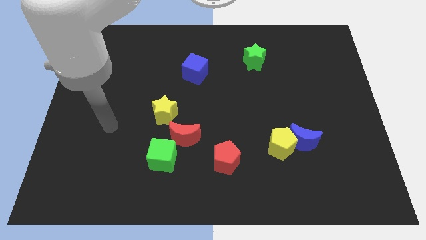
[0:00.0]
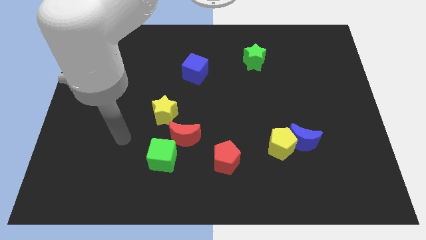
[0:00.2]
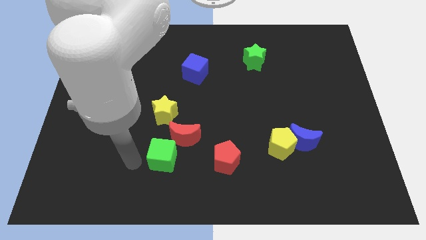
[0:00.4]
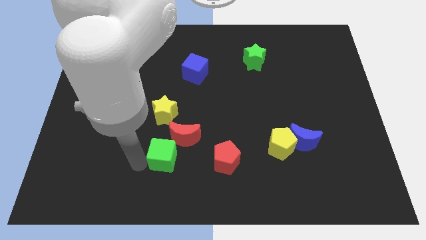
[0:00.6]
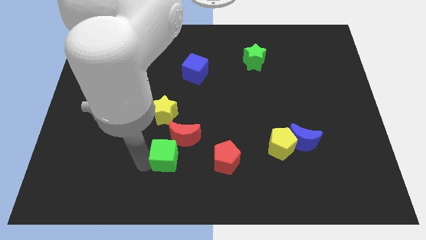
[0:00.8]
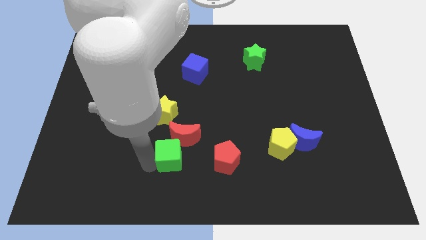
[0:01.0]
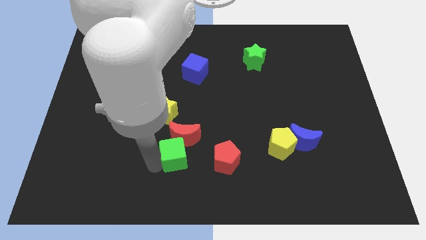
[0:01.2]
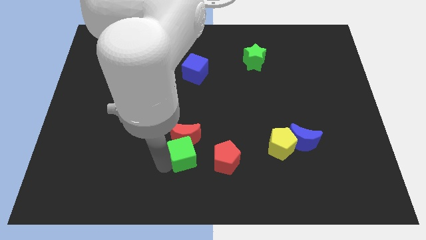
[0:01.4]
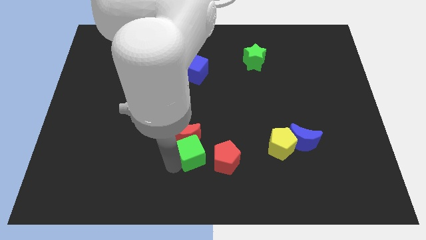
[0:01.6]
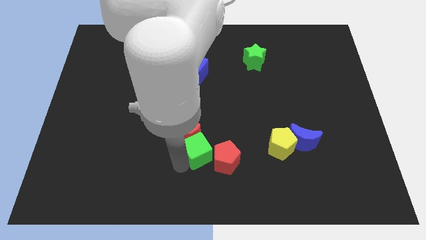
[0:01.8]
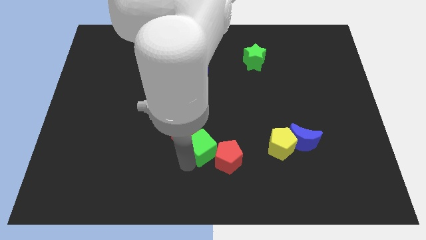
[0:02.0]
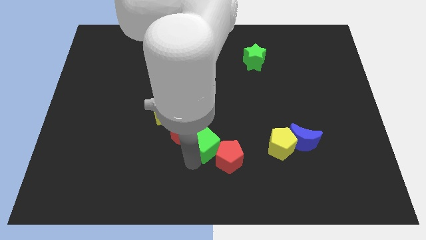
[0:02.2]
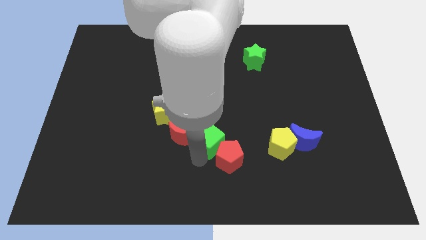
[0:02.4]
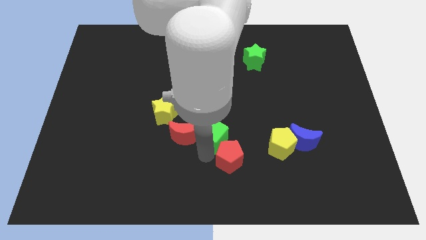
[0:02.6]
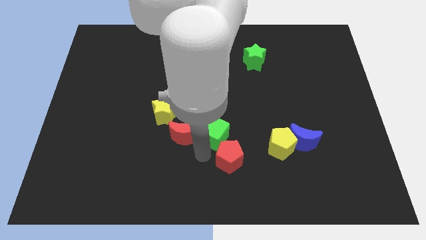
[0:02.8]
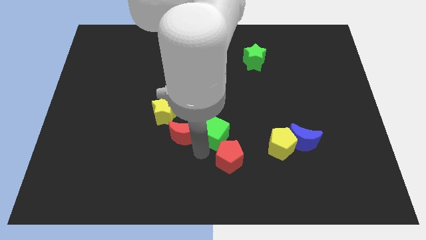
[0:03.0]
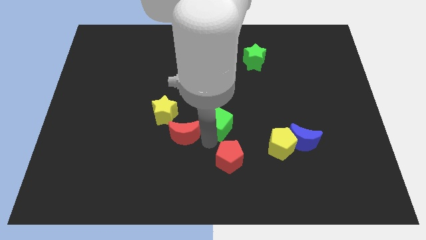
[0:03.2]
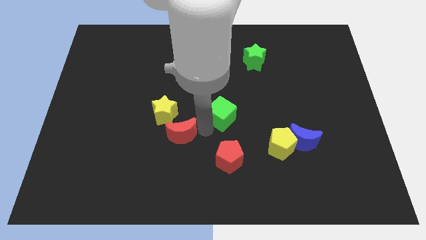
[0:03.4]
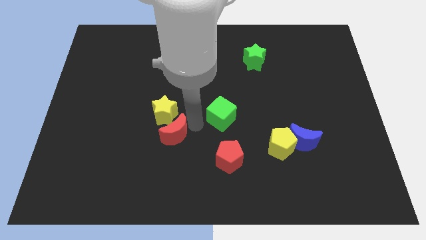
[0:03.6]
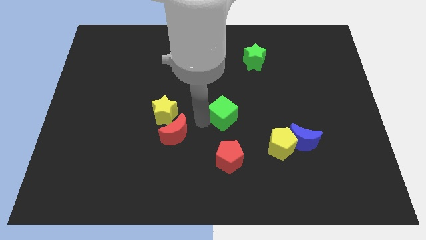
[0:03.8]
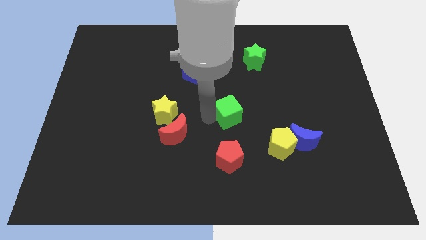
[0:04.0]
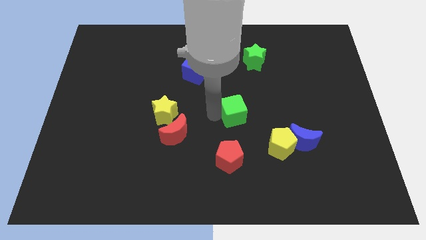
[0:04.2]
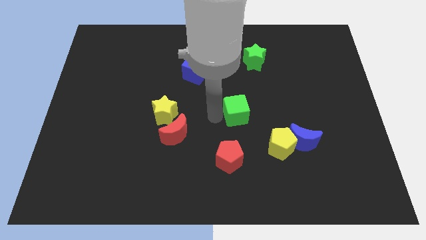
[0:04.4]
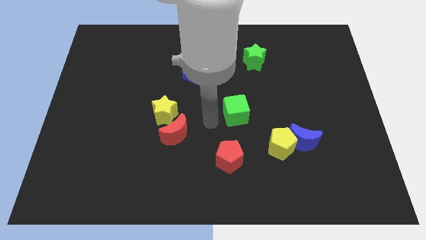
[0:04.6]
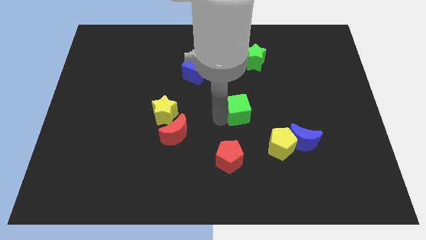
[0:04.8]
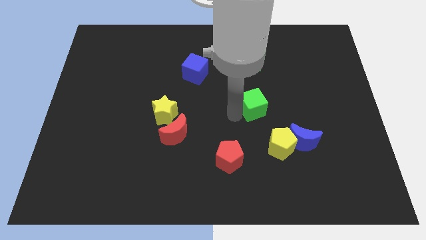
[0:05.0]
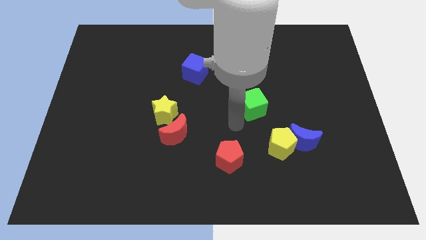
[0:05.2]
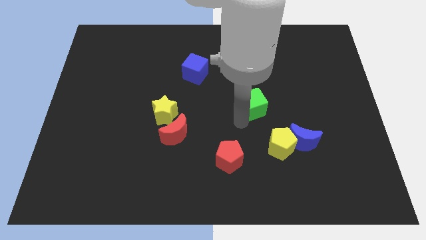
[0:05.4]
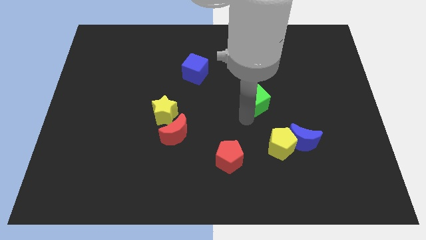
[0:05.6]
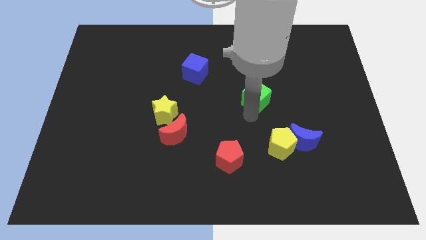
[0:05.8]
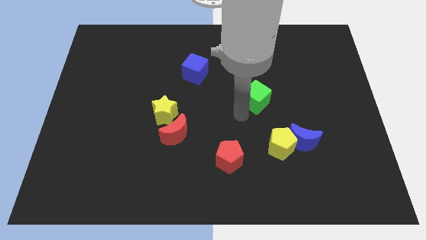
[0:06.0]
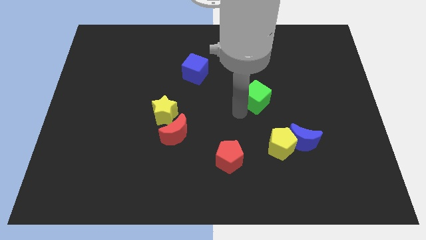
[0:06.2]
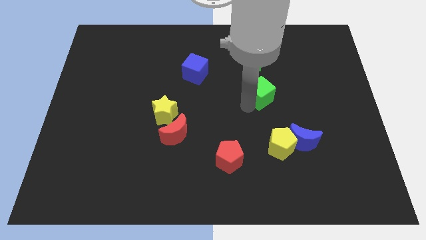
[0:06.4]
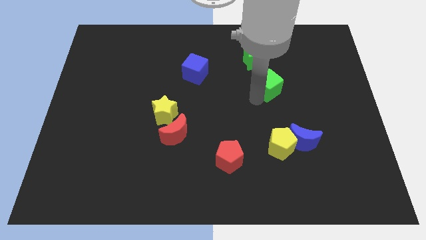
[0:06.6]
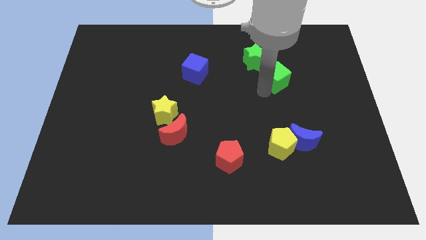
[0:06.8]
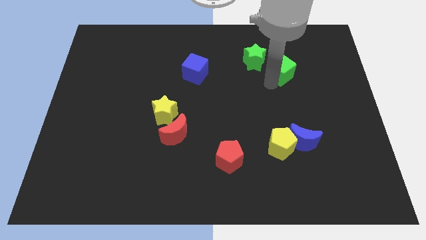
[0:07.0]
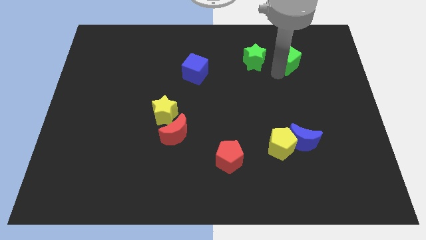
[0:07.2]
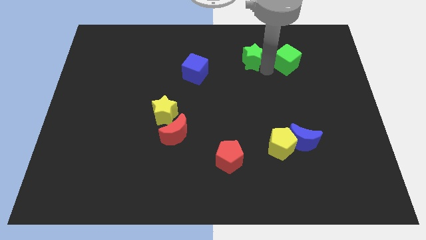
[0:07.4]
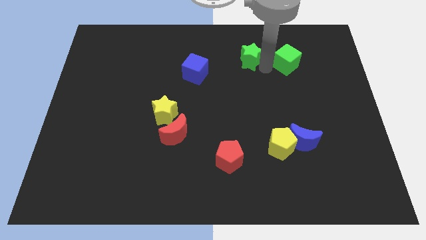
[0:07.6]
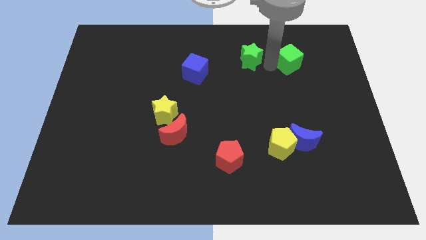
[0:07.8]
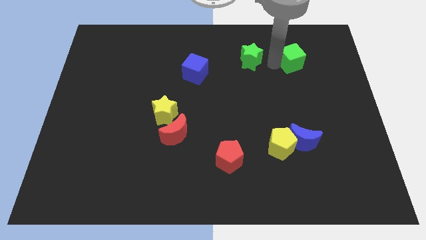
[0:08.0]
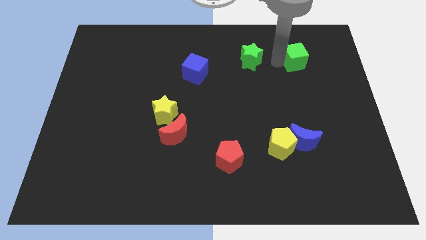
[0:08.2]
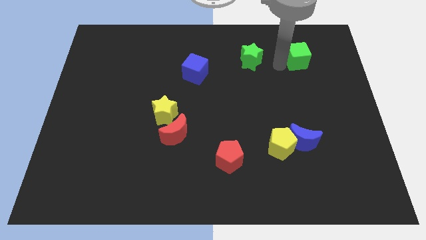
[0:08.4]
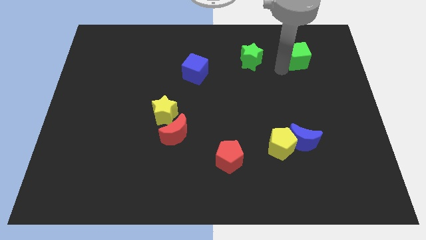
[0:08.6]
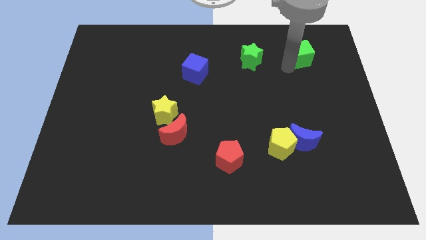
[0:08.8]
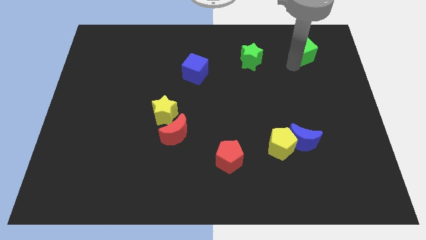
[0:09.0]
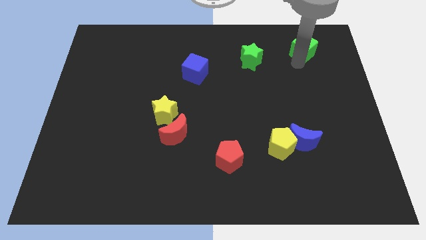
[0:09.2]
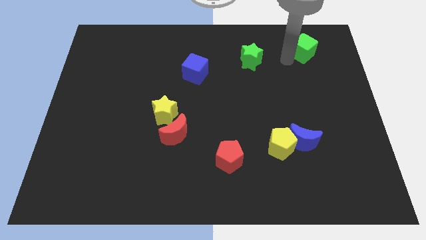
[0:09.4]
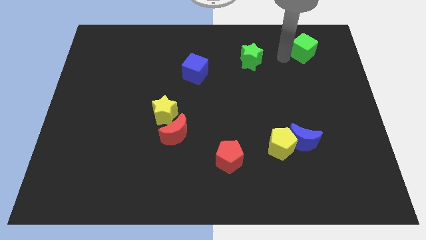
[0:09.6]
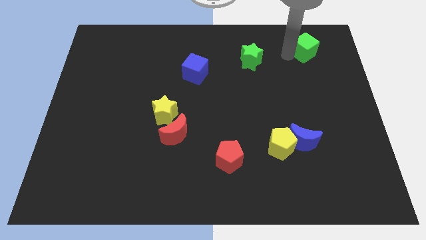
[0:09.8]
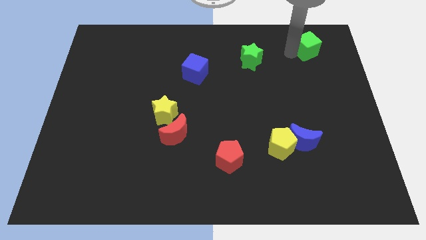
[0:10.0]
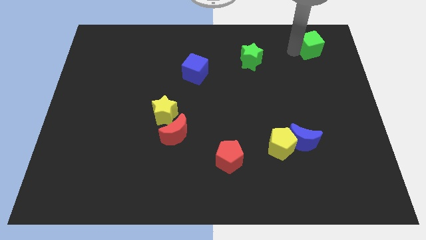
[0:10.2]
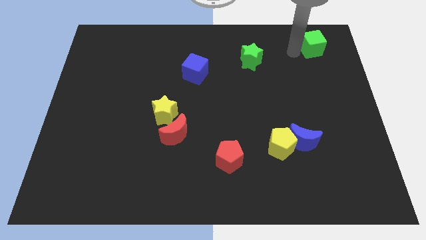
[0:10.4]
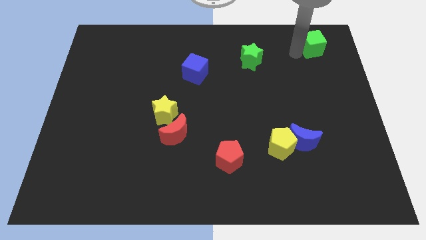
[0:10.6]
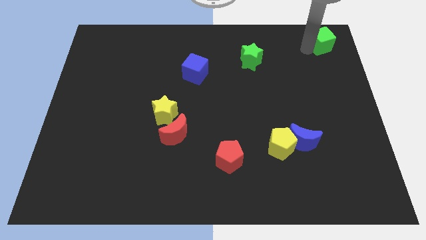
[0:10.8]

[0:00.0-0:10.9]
move the green cube to the upper right corner
